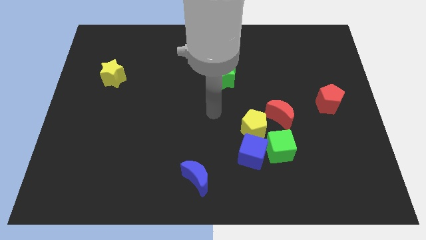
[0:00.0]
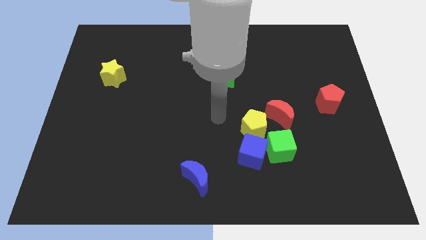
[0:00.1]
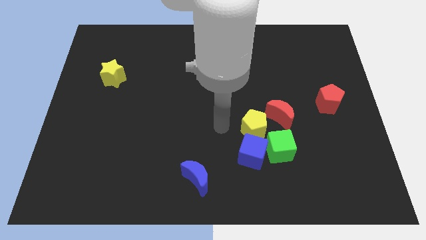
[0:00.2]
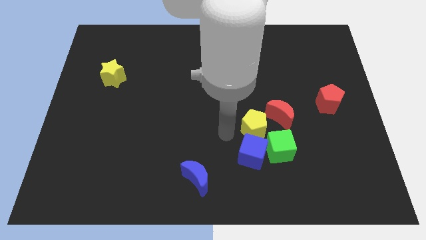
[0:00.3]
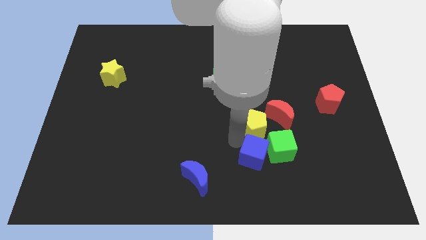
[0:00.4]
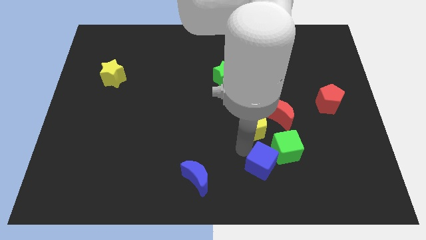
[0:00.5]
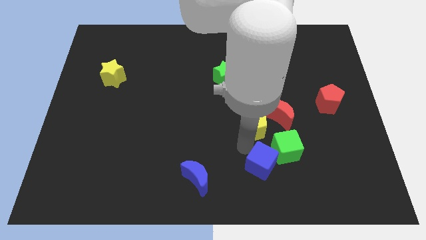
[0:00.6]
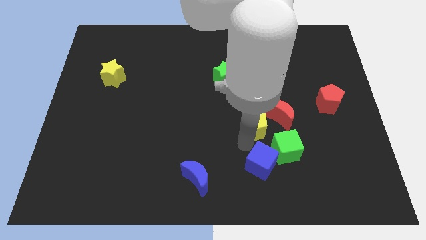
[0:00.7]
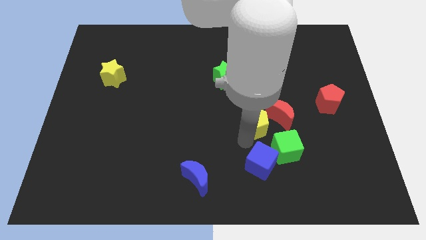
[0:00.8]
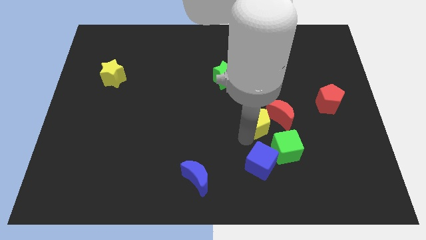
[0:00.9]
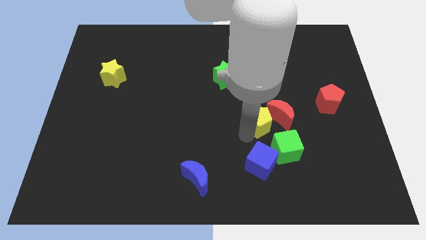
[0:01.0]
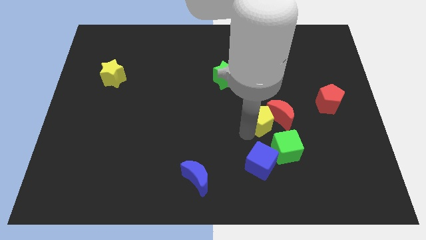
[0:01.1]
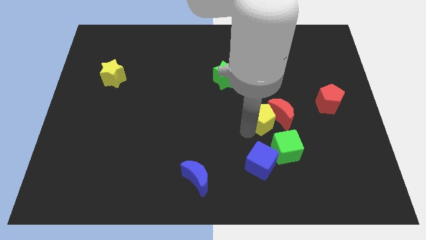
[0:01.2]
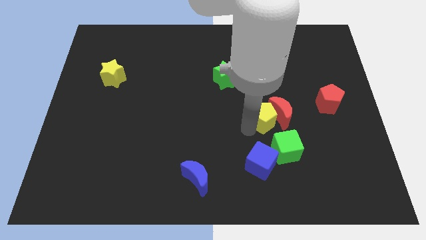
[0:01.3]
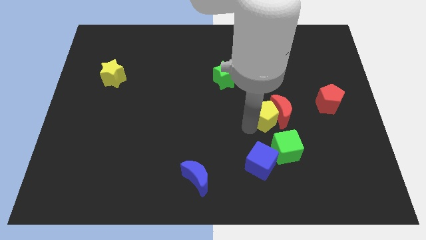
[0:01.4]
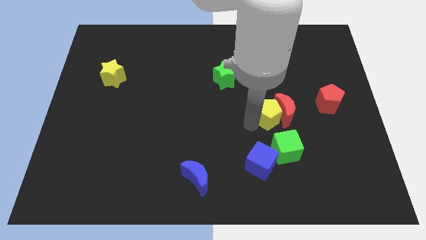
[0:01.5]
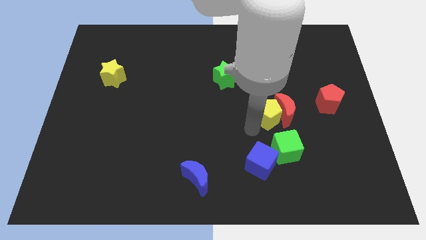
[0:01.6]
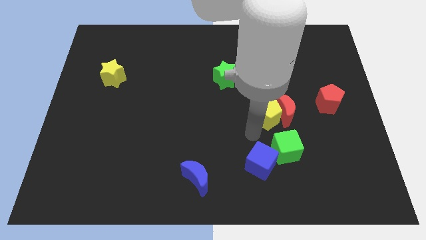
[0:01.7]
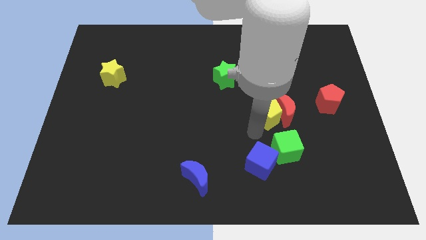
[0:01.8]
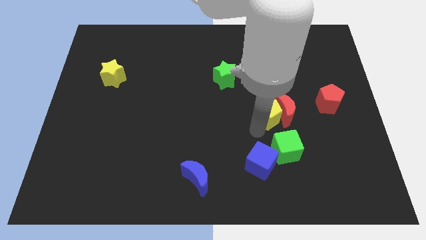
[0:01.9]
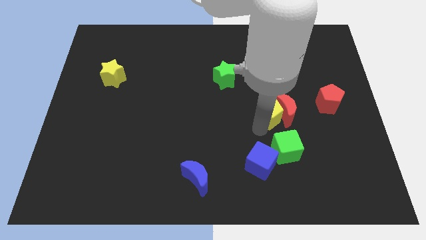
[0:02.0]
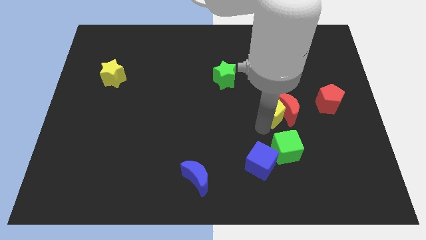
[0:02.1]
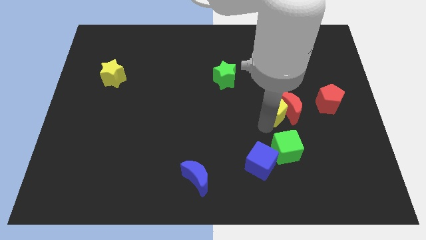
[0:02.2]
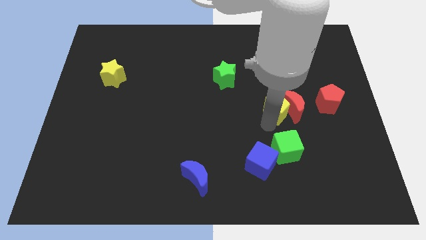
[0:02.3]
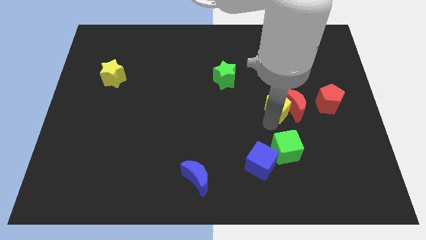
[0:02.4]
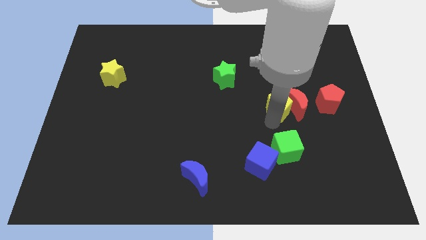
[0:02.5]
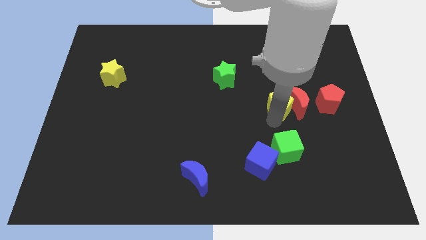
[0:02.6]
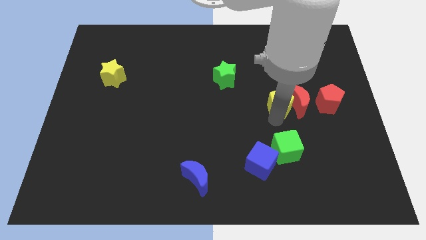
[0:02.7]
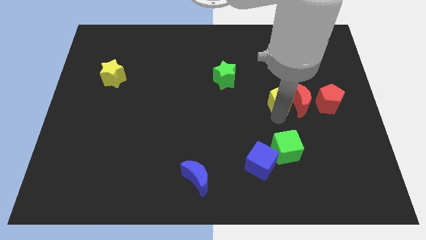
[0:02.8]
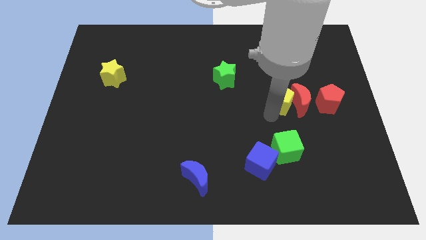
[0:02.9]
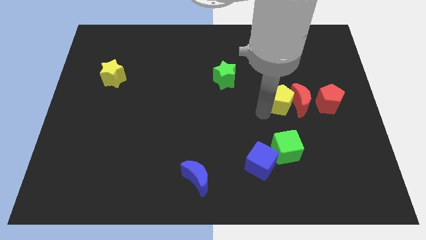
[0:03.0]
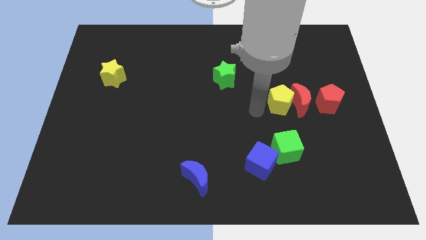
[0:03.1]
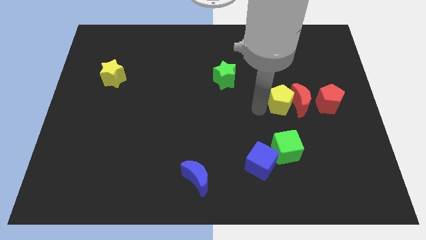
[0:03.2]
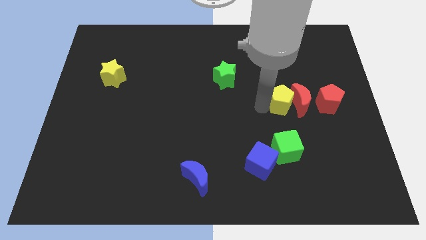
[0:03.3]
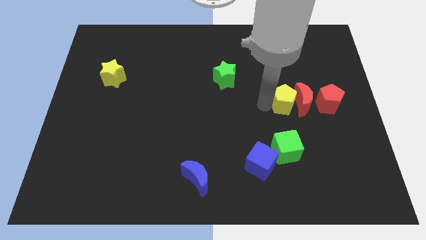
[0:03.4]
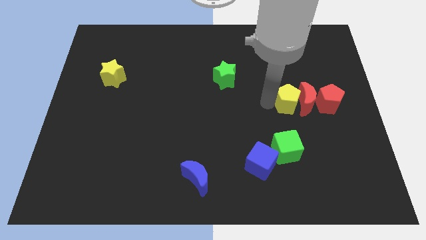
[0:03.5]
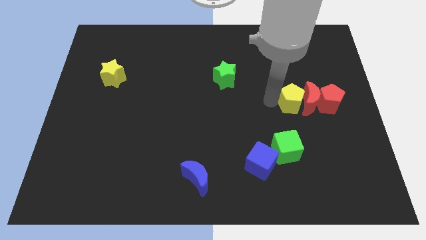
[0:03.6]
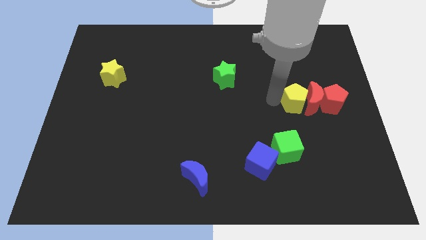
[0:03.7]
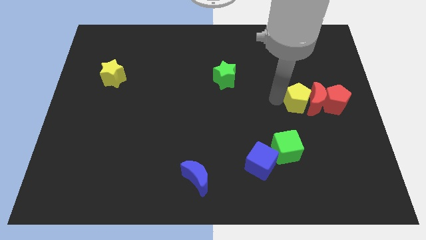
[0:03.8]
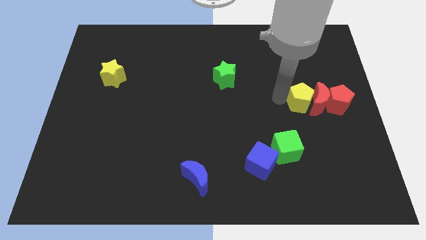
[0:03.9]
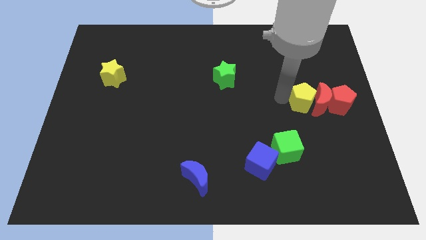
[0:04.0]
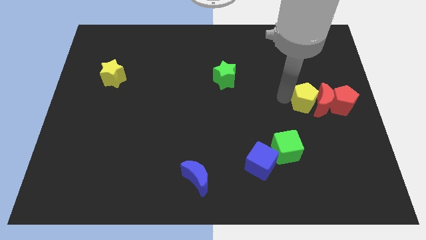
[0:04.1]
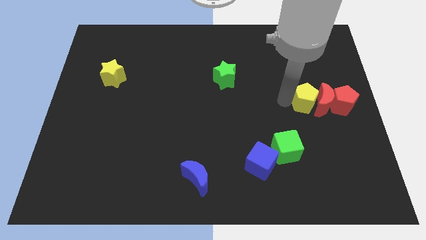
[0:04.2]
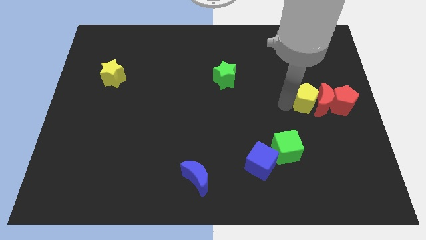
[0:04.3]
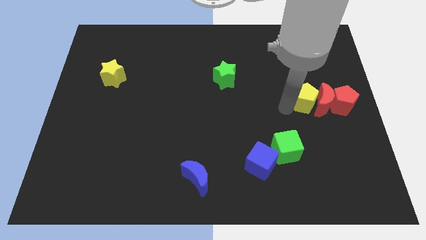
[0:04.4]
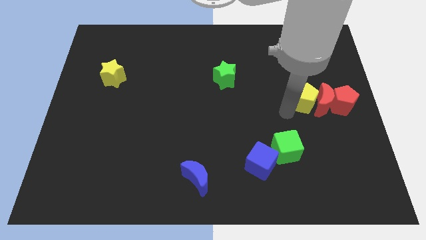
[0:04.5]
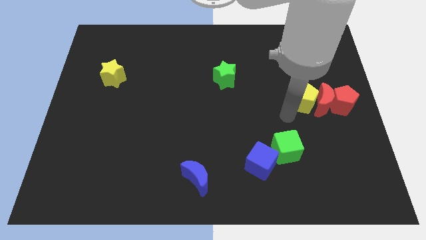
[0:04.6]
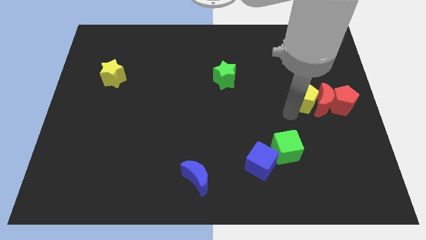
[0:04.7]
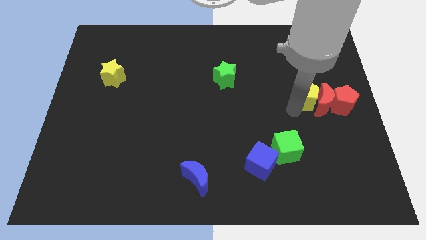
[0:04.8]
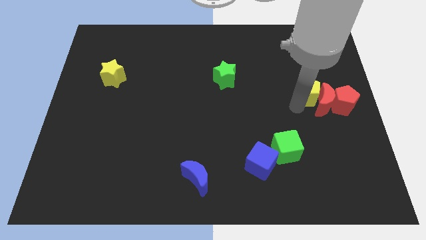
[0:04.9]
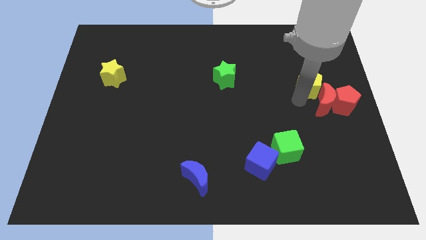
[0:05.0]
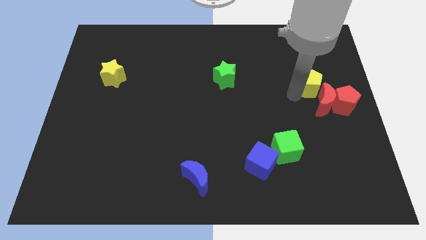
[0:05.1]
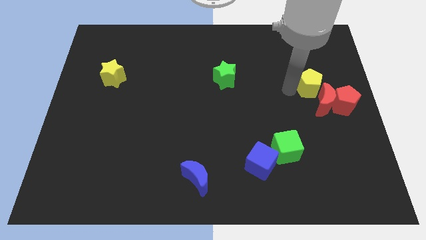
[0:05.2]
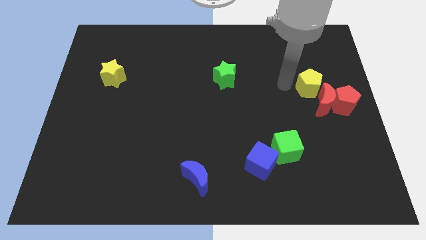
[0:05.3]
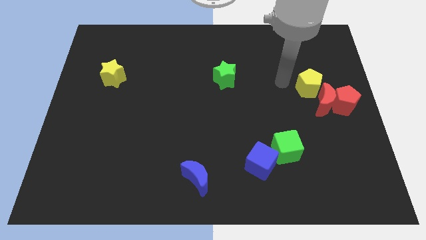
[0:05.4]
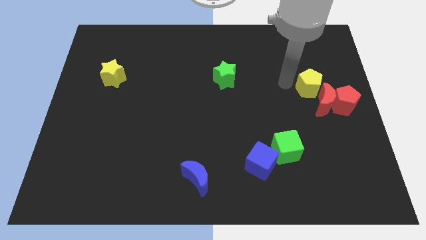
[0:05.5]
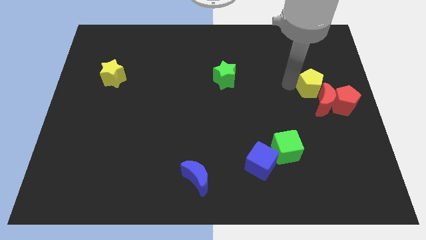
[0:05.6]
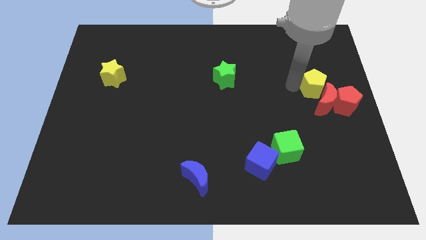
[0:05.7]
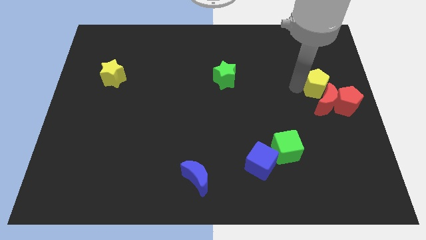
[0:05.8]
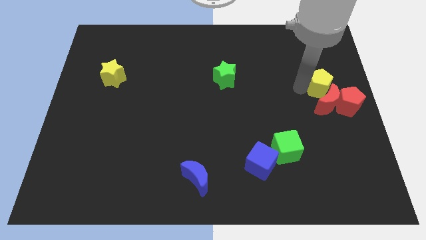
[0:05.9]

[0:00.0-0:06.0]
put the yellow pentagon to the center right
